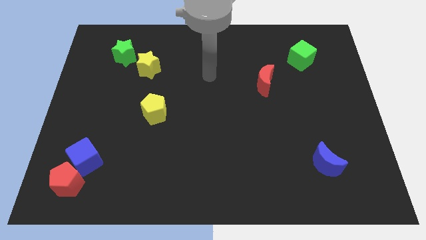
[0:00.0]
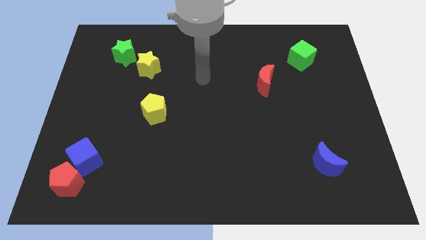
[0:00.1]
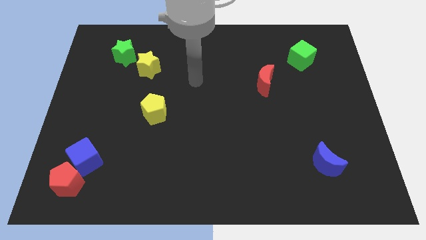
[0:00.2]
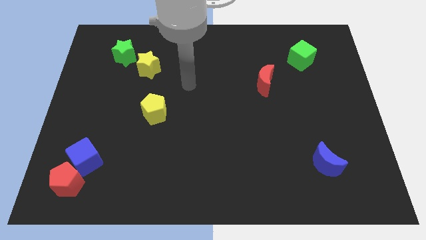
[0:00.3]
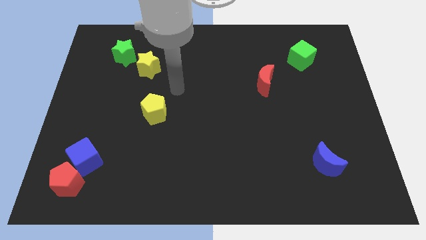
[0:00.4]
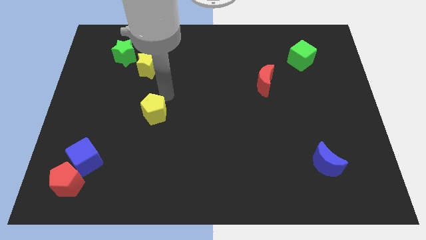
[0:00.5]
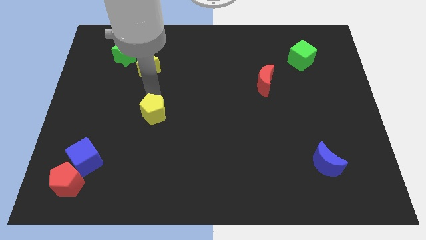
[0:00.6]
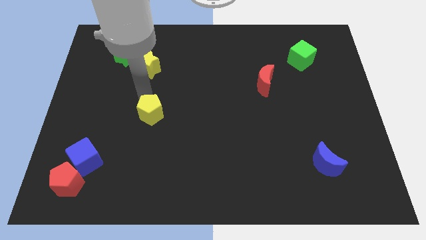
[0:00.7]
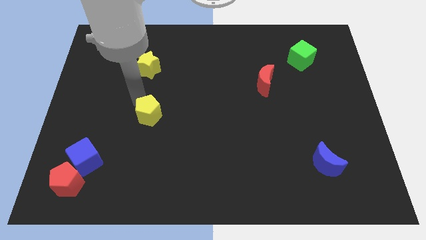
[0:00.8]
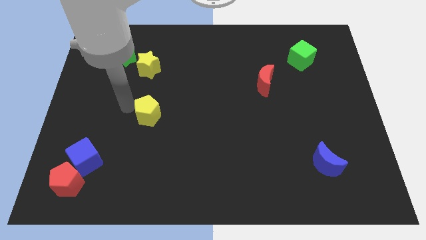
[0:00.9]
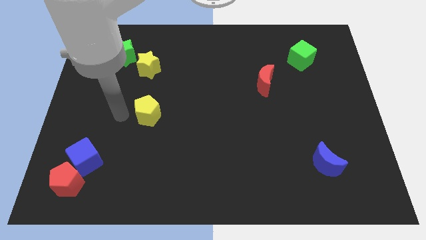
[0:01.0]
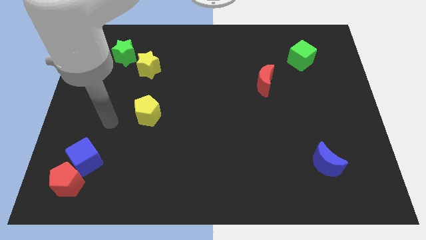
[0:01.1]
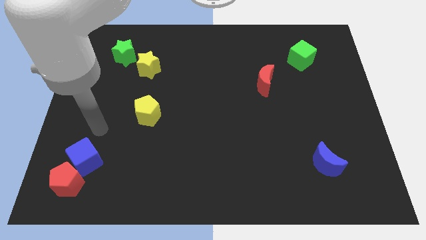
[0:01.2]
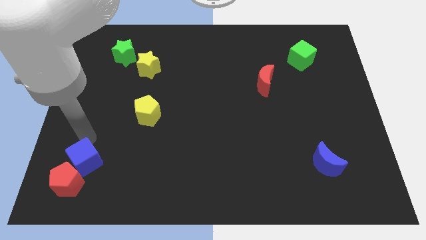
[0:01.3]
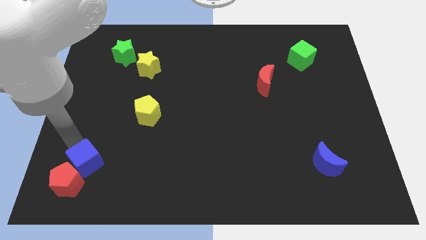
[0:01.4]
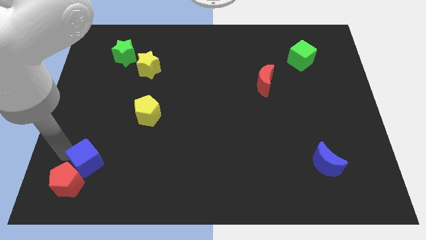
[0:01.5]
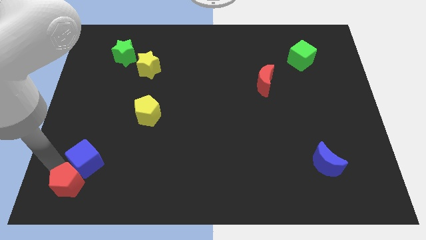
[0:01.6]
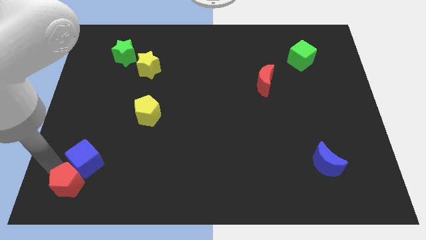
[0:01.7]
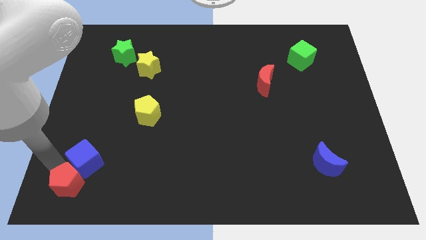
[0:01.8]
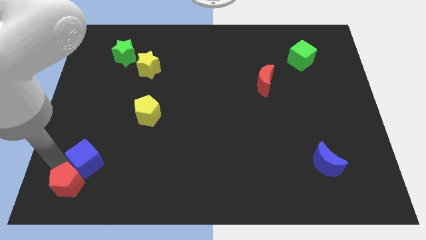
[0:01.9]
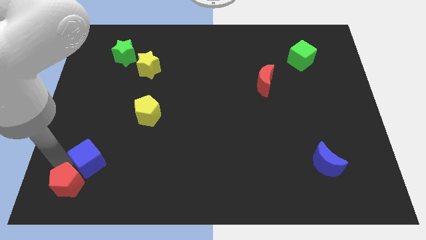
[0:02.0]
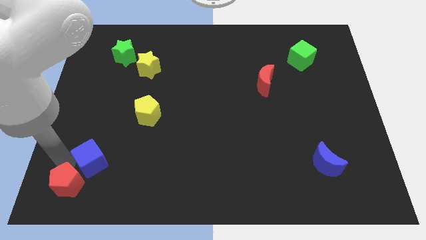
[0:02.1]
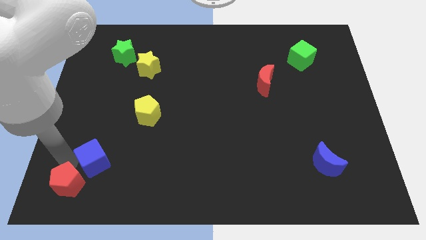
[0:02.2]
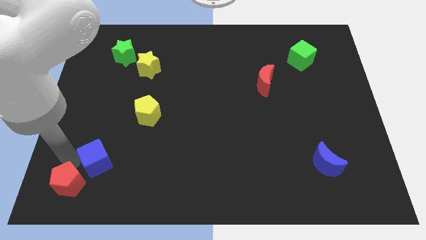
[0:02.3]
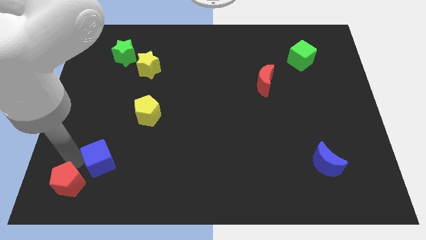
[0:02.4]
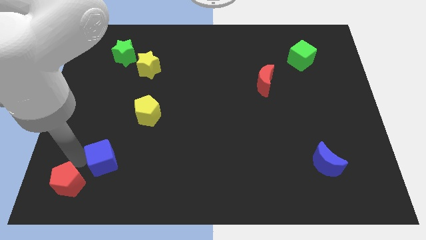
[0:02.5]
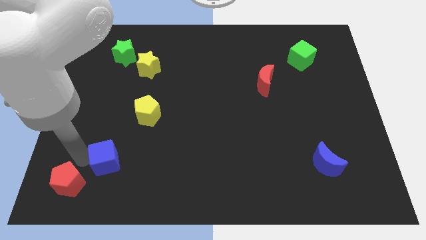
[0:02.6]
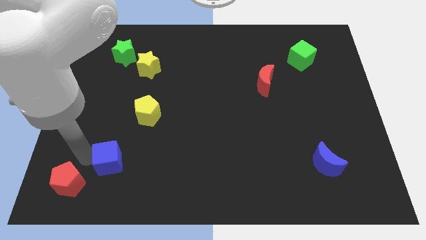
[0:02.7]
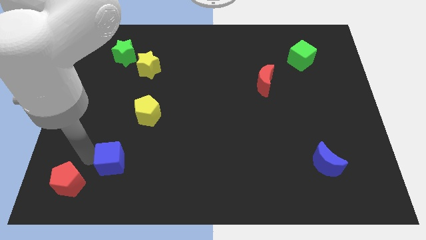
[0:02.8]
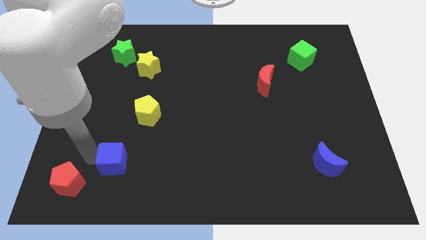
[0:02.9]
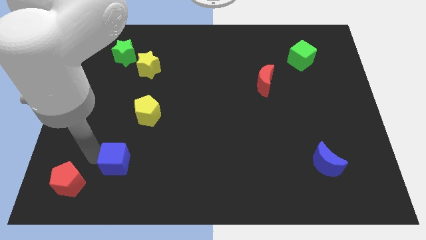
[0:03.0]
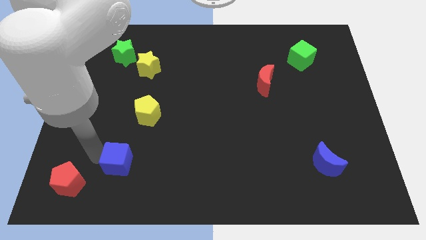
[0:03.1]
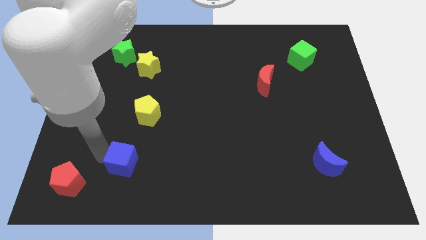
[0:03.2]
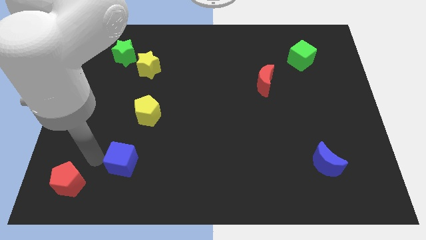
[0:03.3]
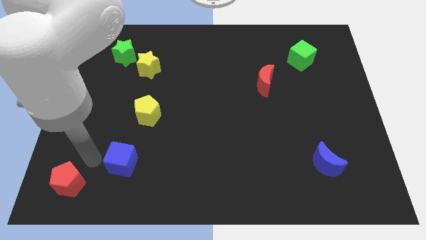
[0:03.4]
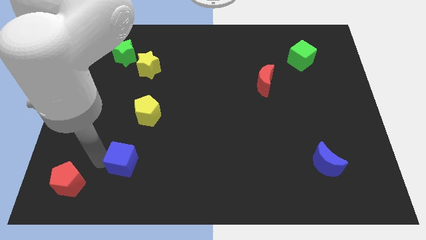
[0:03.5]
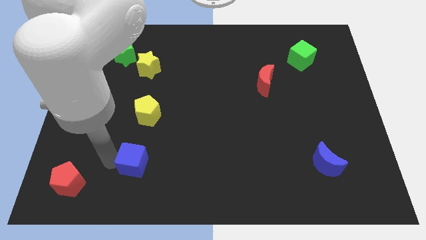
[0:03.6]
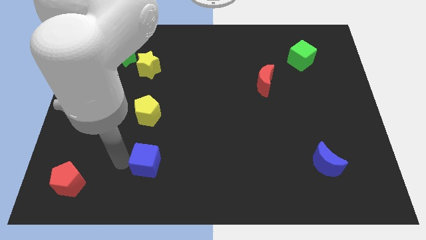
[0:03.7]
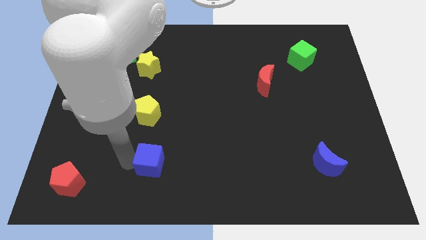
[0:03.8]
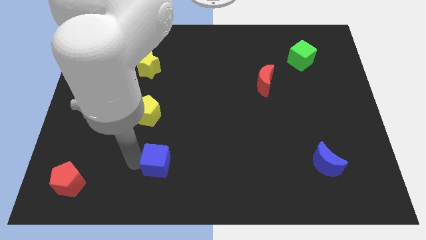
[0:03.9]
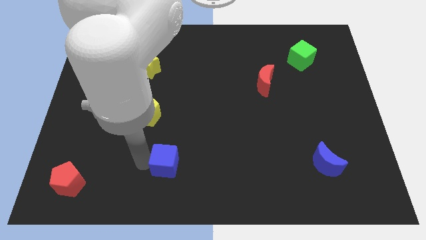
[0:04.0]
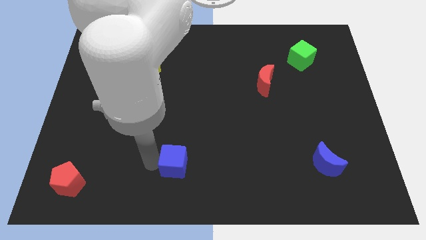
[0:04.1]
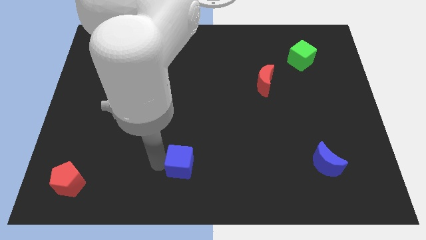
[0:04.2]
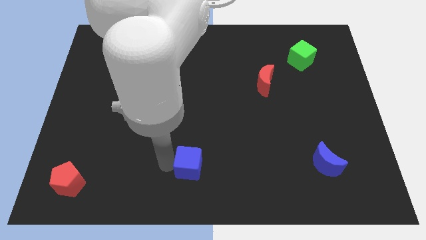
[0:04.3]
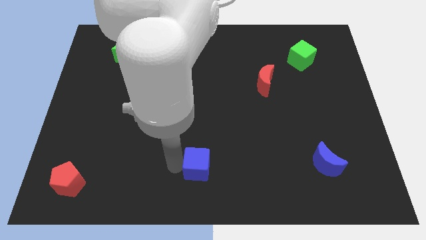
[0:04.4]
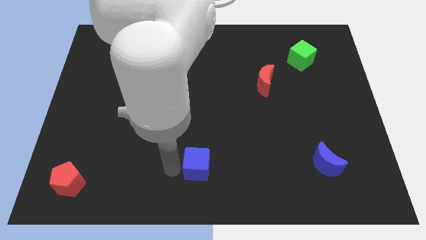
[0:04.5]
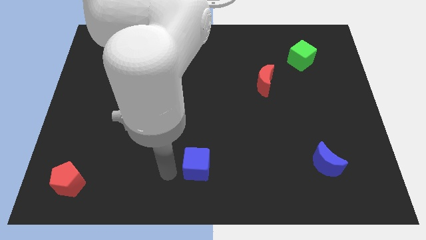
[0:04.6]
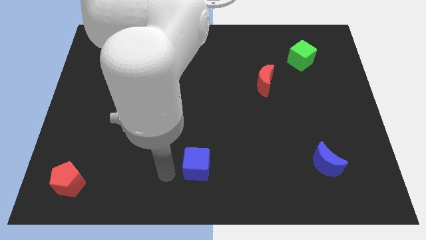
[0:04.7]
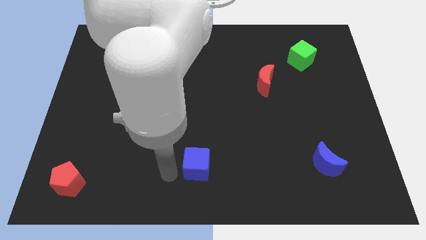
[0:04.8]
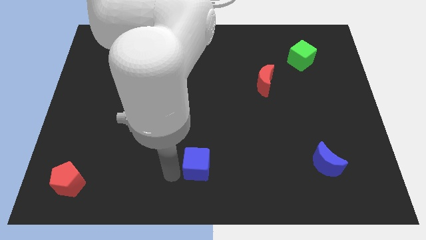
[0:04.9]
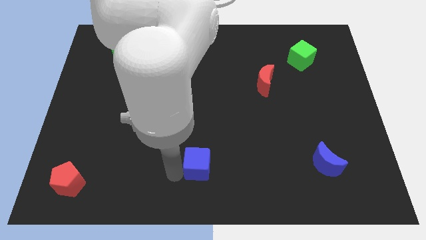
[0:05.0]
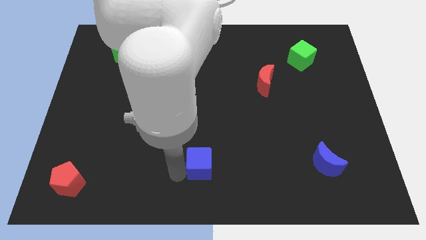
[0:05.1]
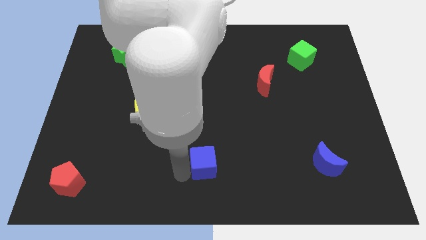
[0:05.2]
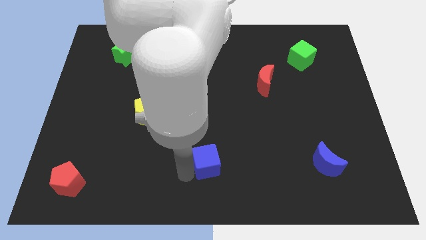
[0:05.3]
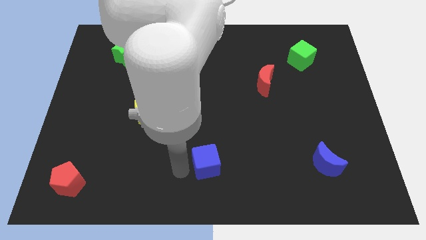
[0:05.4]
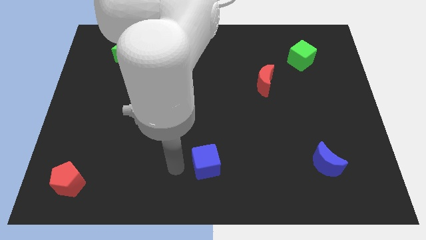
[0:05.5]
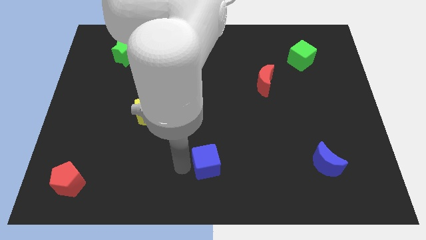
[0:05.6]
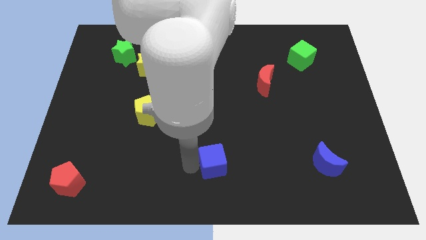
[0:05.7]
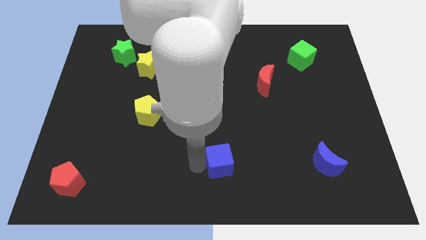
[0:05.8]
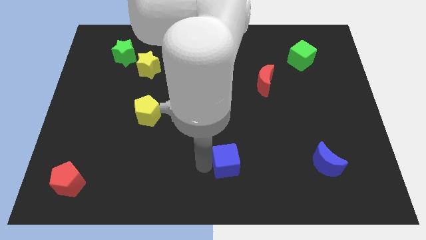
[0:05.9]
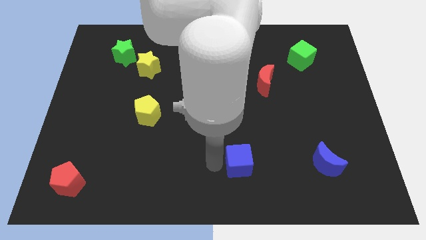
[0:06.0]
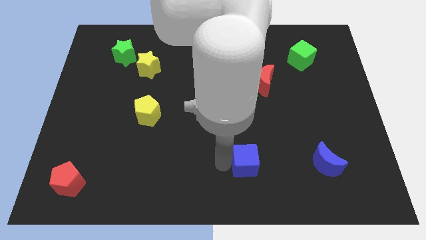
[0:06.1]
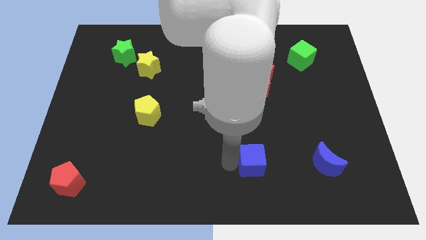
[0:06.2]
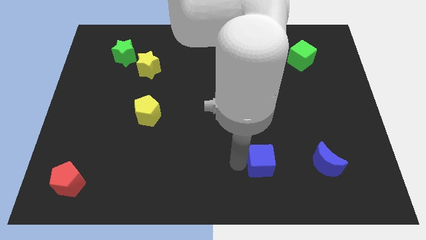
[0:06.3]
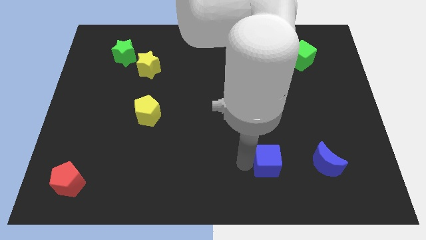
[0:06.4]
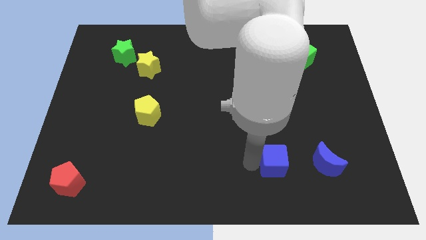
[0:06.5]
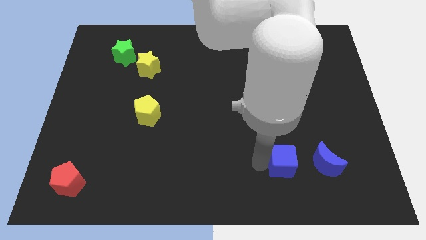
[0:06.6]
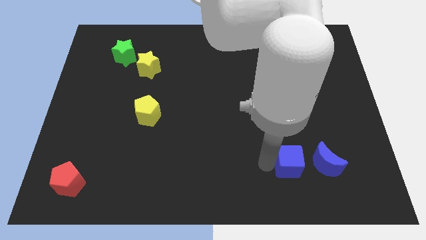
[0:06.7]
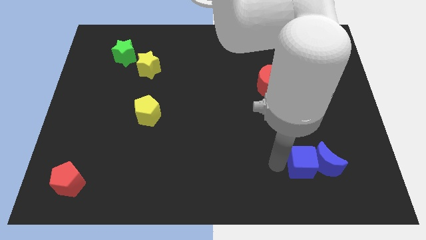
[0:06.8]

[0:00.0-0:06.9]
push the blue cube to the blue moon
